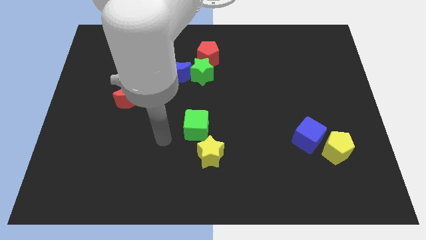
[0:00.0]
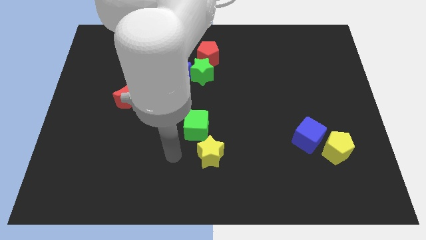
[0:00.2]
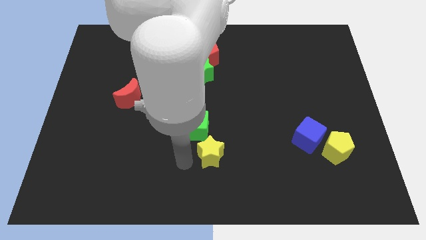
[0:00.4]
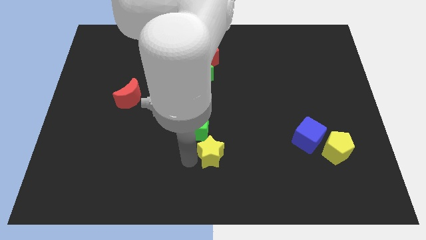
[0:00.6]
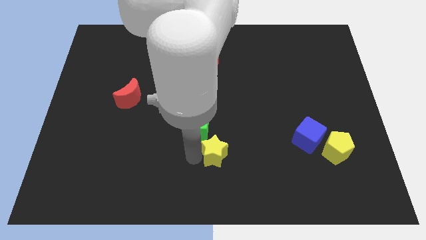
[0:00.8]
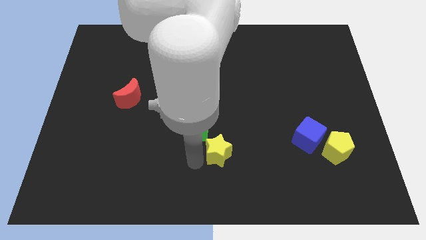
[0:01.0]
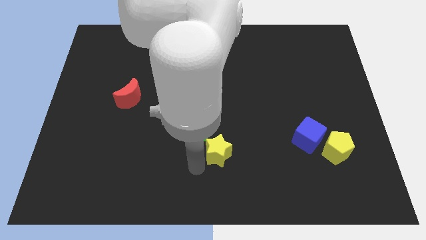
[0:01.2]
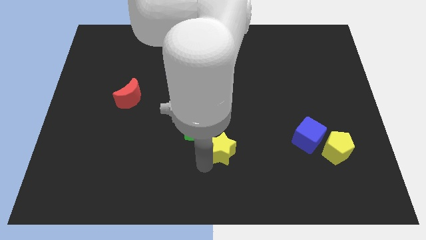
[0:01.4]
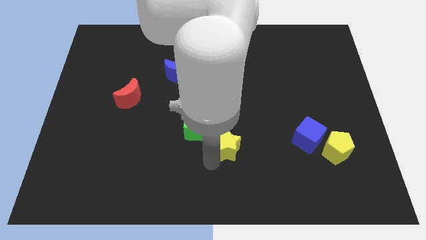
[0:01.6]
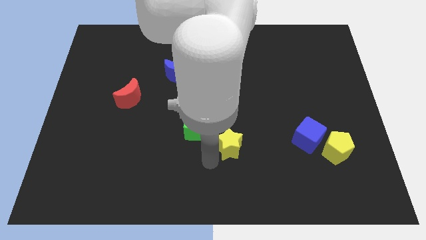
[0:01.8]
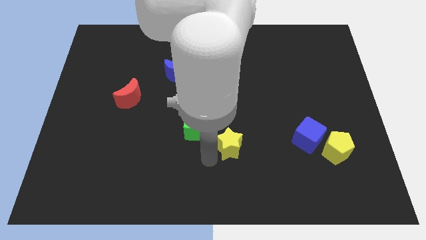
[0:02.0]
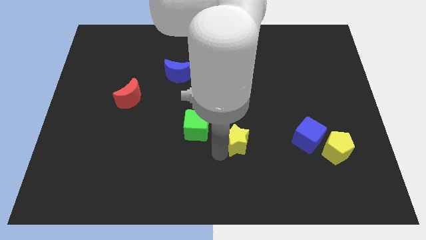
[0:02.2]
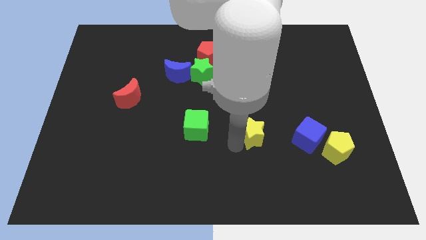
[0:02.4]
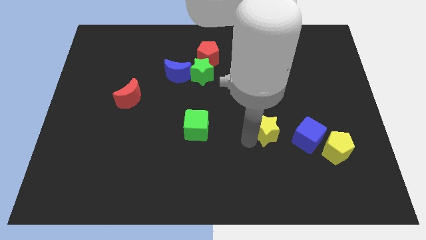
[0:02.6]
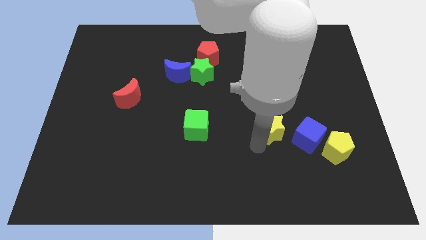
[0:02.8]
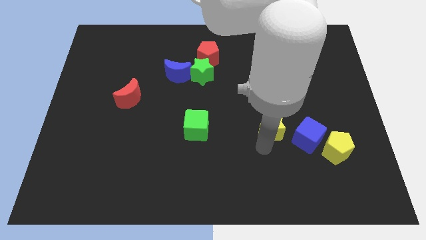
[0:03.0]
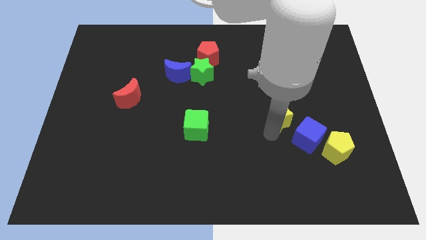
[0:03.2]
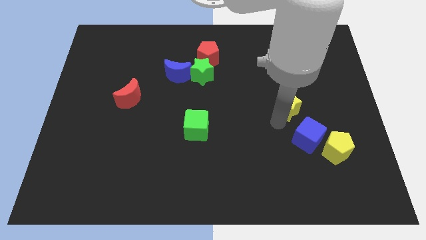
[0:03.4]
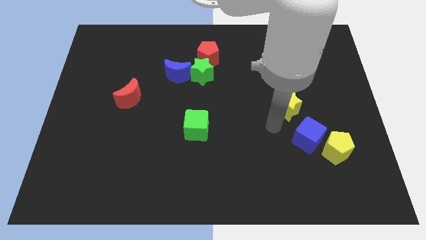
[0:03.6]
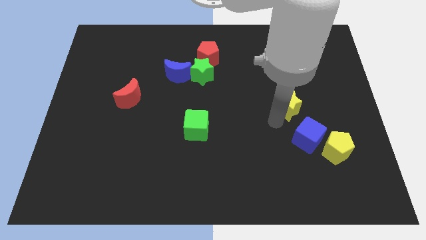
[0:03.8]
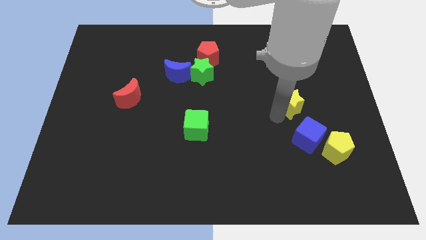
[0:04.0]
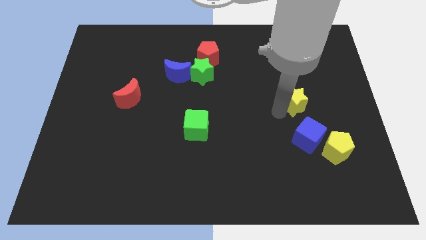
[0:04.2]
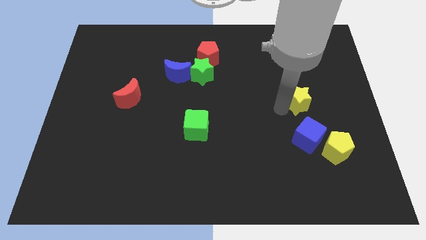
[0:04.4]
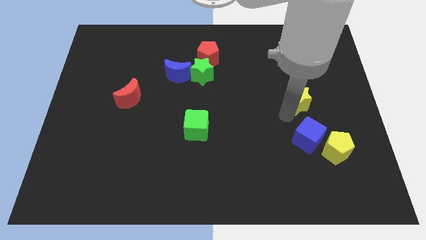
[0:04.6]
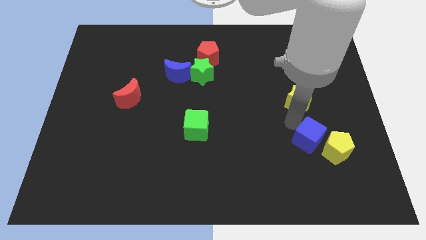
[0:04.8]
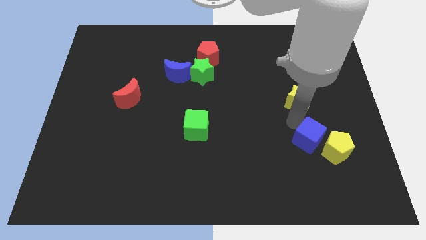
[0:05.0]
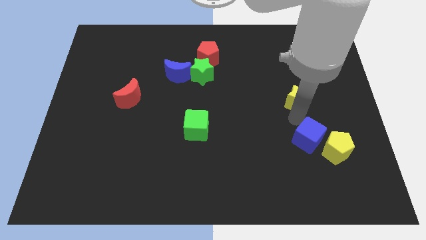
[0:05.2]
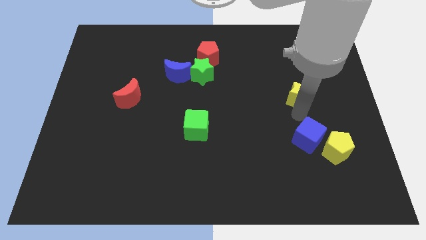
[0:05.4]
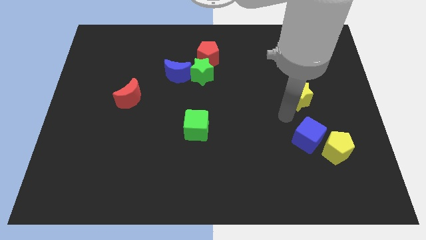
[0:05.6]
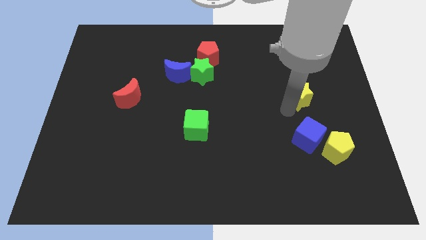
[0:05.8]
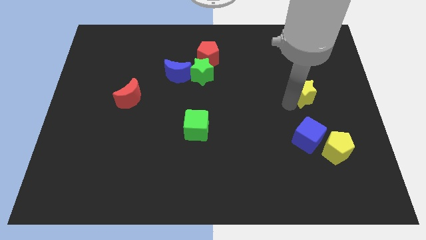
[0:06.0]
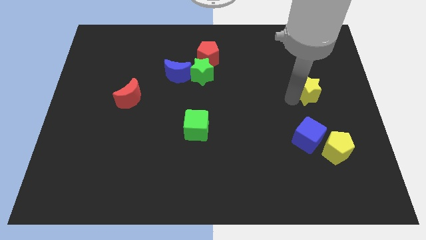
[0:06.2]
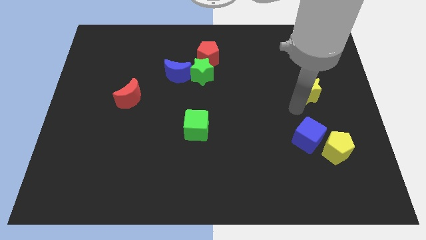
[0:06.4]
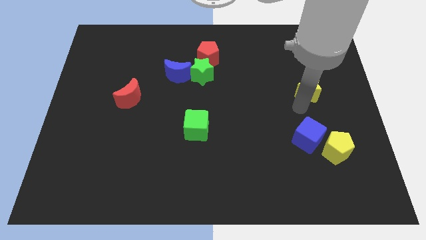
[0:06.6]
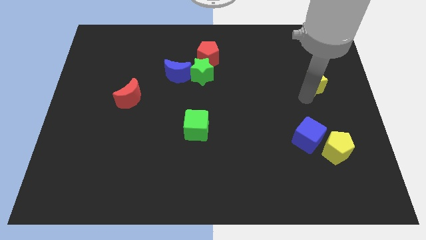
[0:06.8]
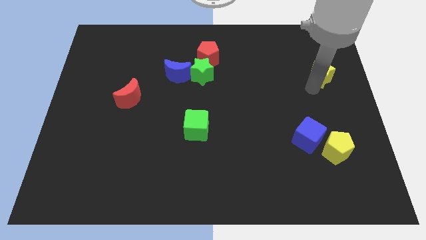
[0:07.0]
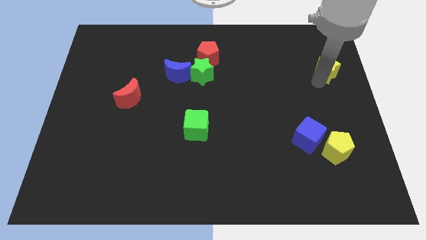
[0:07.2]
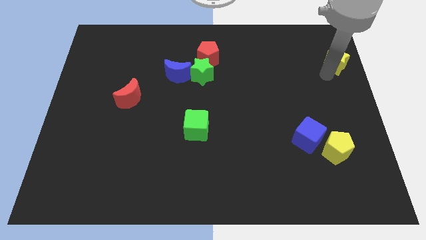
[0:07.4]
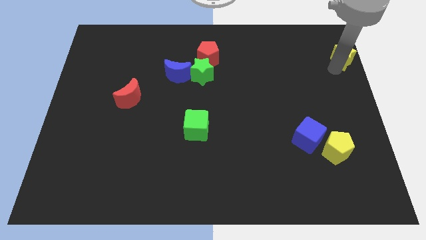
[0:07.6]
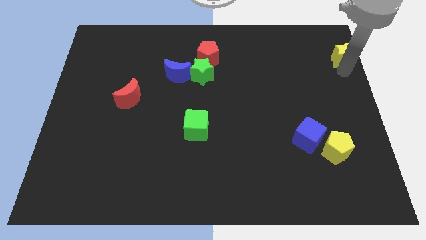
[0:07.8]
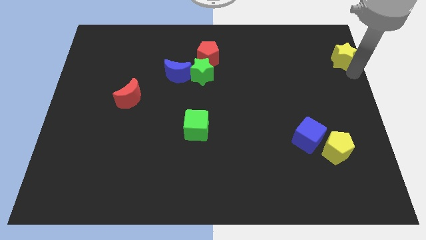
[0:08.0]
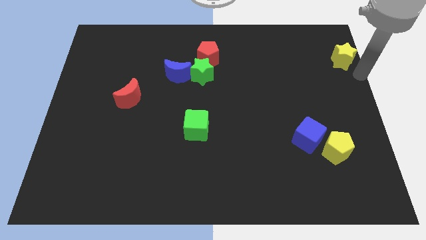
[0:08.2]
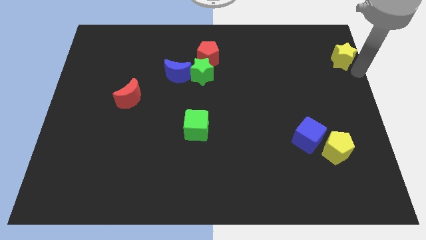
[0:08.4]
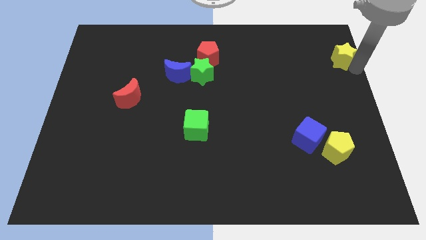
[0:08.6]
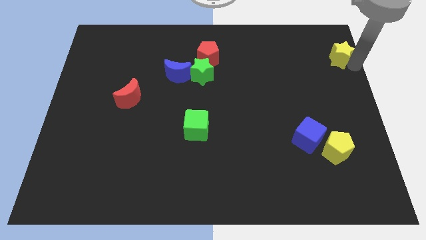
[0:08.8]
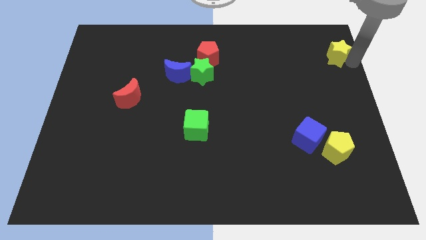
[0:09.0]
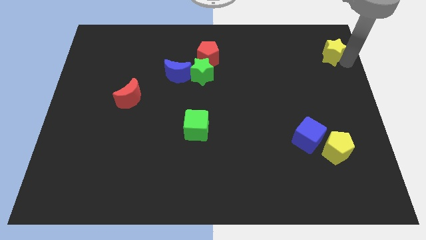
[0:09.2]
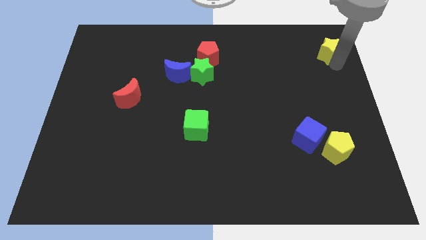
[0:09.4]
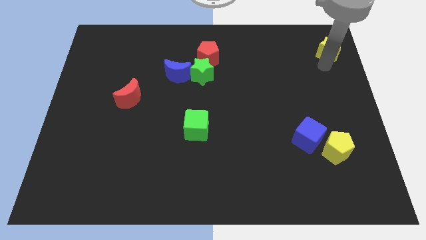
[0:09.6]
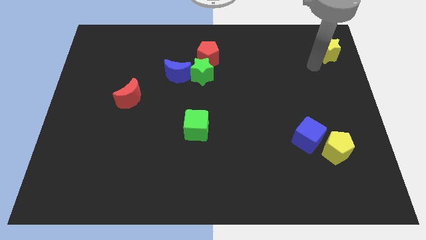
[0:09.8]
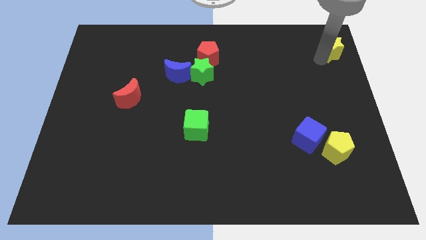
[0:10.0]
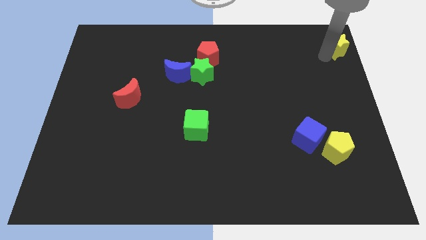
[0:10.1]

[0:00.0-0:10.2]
slide the yellow star to the top right

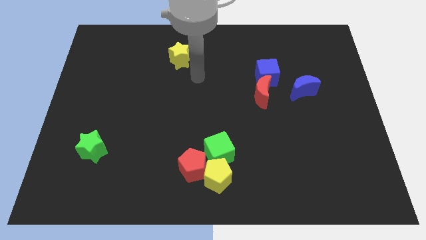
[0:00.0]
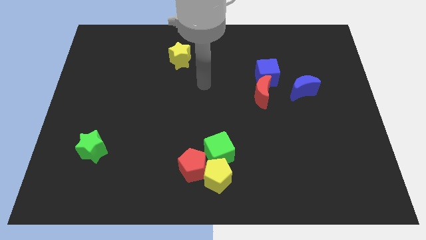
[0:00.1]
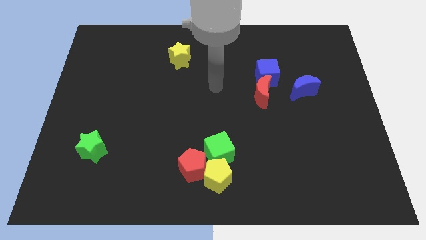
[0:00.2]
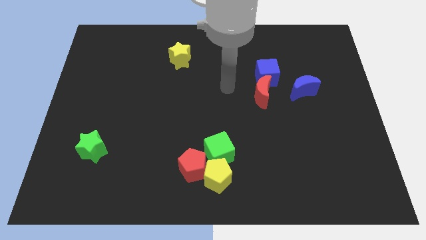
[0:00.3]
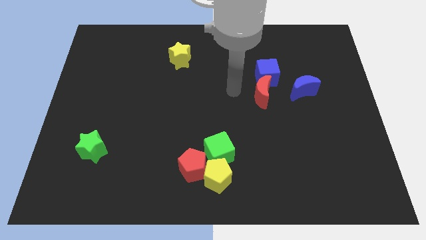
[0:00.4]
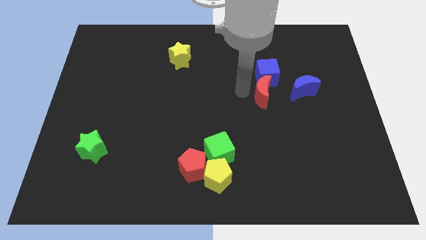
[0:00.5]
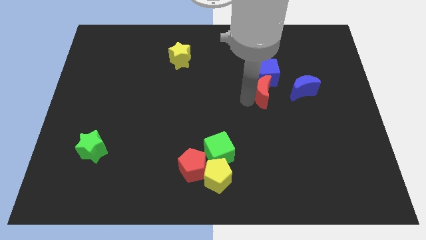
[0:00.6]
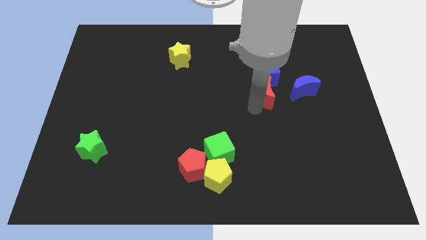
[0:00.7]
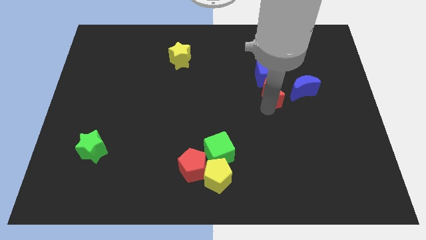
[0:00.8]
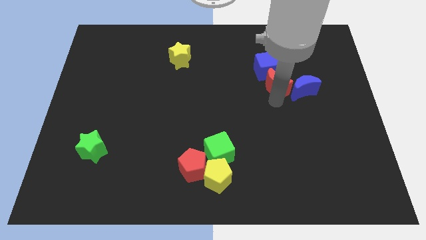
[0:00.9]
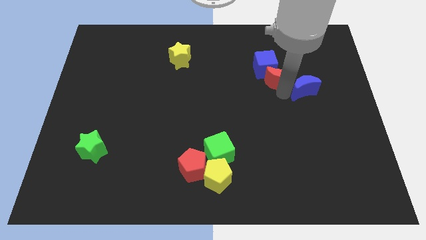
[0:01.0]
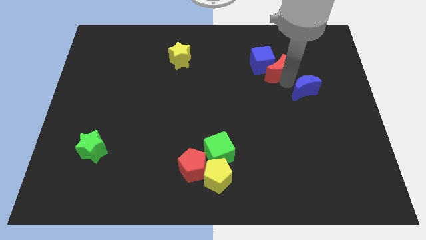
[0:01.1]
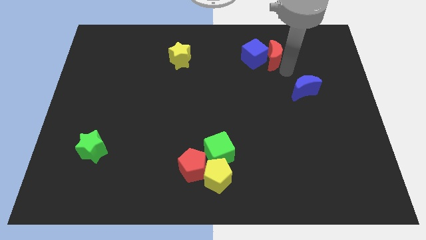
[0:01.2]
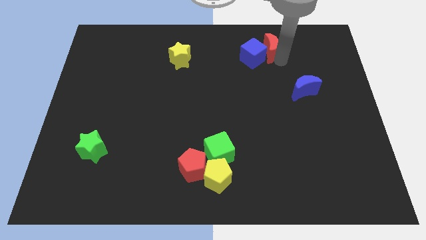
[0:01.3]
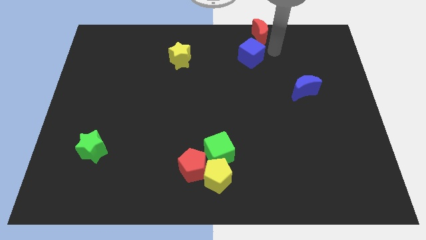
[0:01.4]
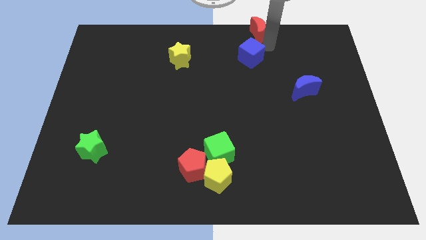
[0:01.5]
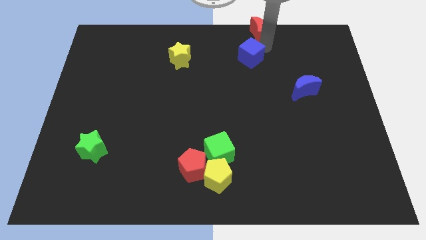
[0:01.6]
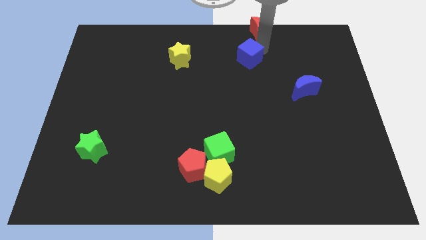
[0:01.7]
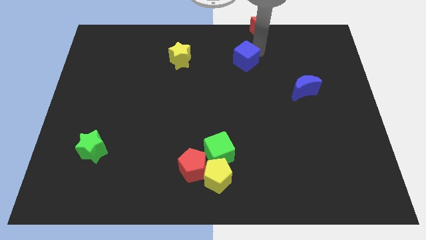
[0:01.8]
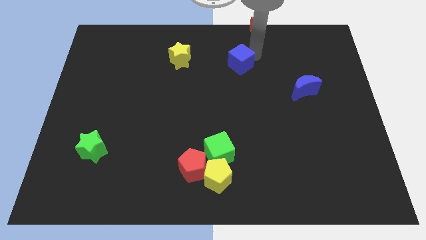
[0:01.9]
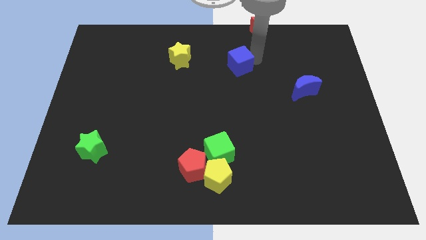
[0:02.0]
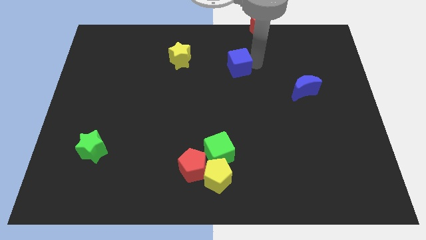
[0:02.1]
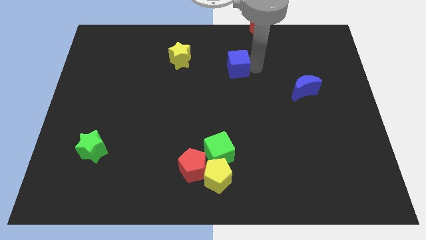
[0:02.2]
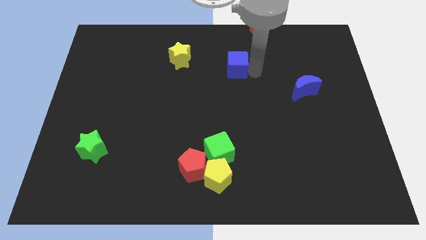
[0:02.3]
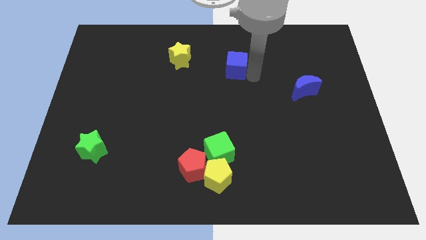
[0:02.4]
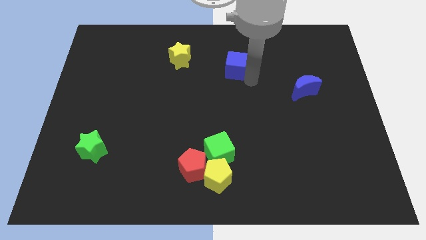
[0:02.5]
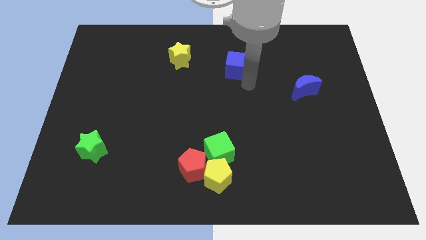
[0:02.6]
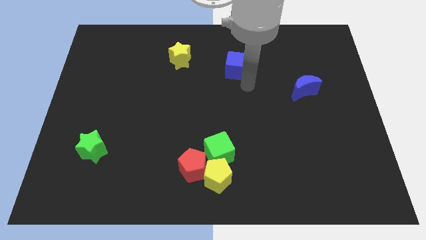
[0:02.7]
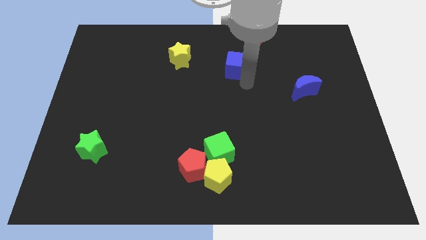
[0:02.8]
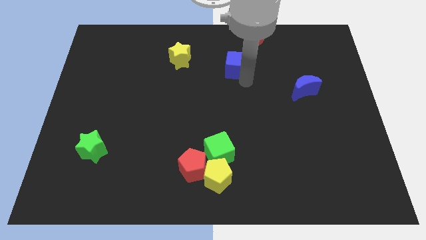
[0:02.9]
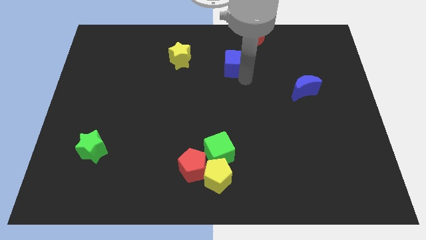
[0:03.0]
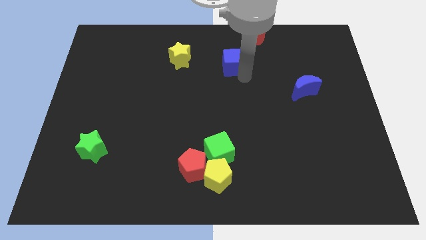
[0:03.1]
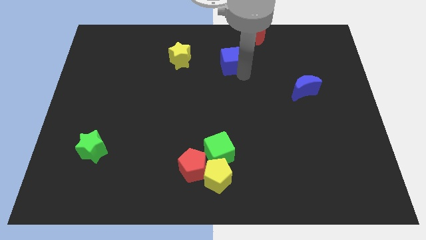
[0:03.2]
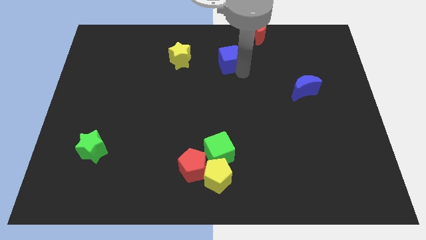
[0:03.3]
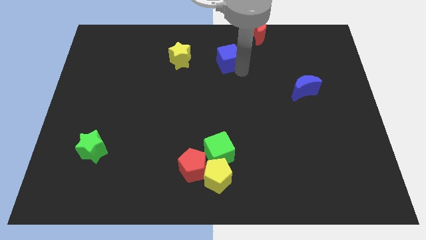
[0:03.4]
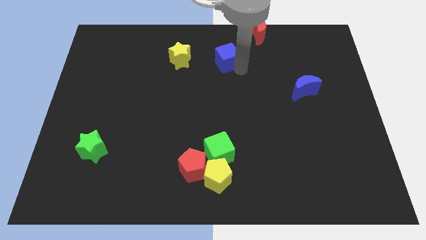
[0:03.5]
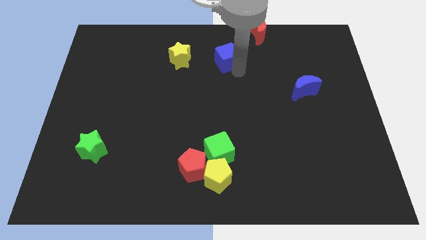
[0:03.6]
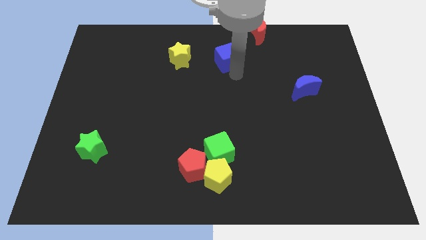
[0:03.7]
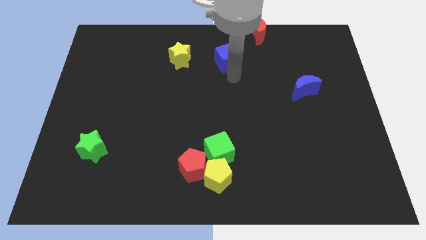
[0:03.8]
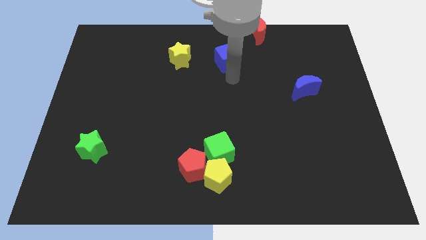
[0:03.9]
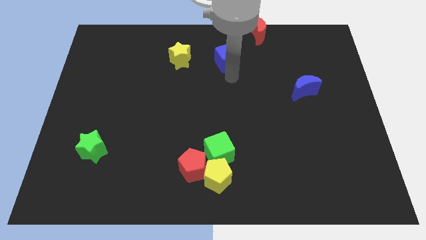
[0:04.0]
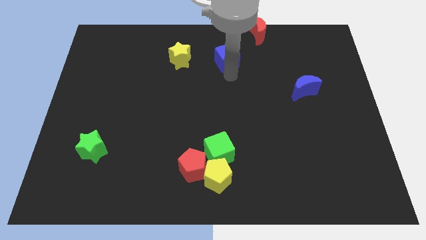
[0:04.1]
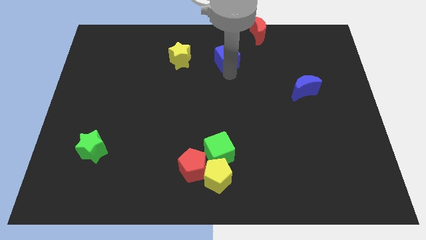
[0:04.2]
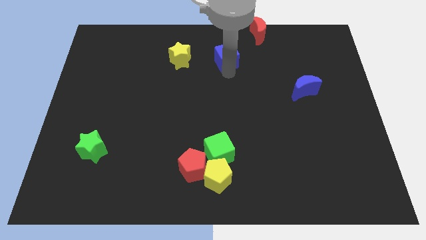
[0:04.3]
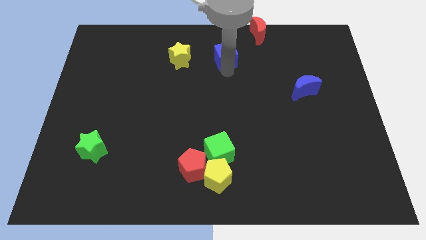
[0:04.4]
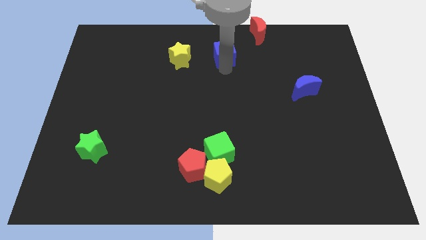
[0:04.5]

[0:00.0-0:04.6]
push the blue cube to the towards your base
